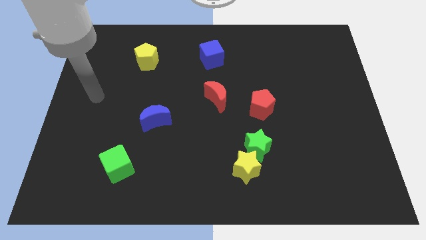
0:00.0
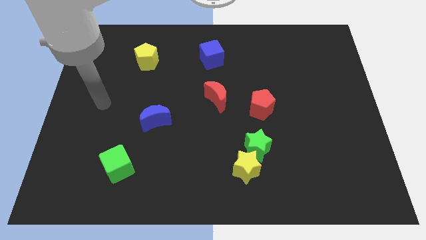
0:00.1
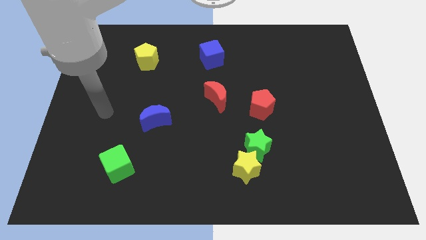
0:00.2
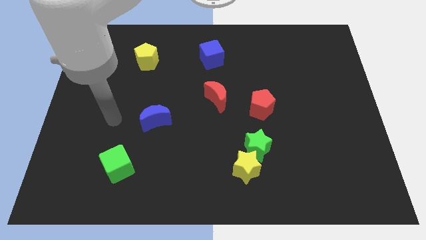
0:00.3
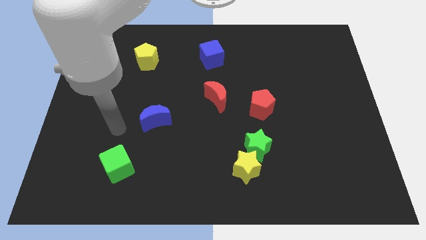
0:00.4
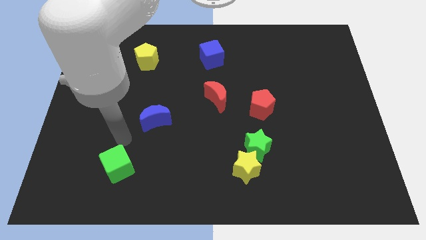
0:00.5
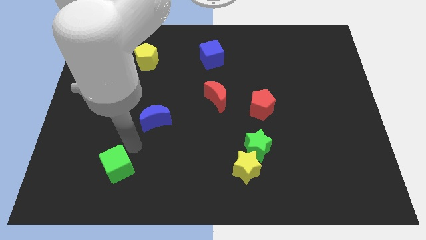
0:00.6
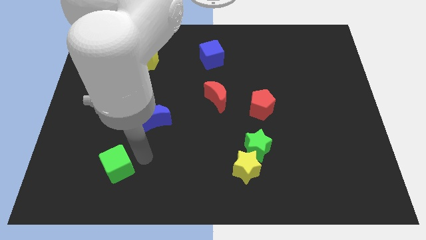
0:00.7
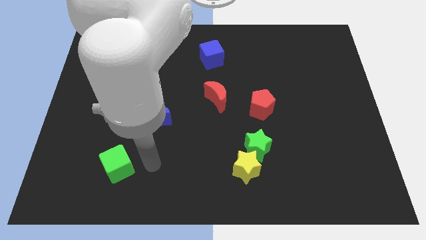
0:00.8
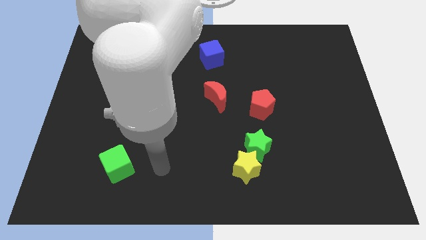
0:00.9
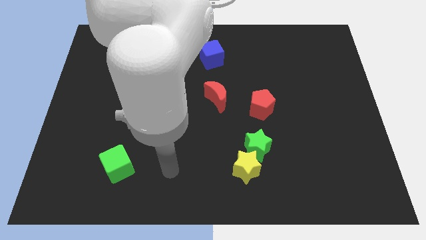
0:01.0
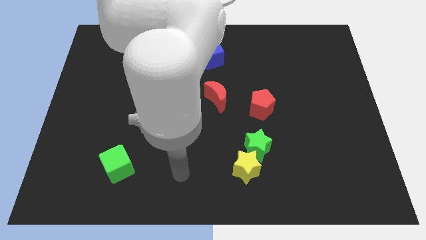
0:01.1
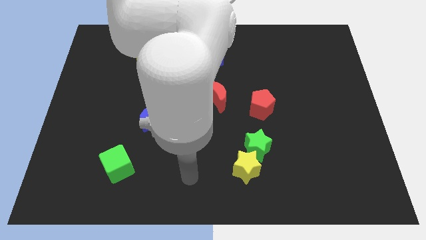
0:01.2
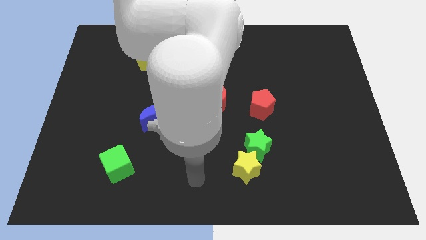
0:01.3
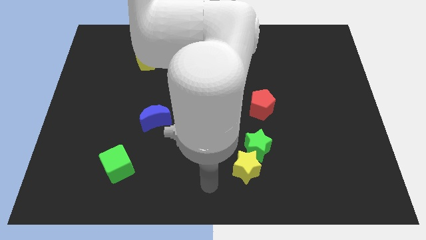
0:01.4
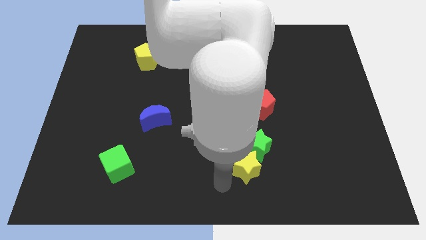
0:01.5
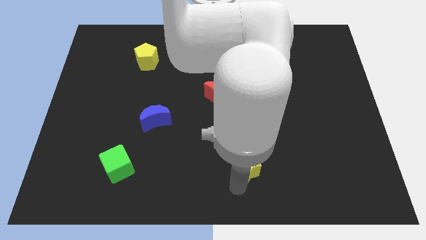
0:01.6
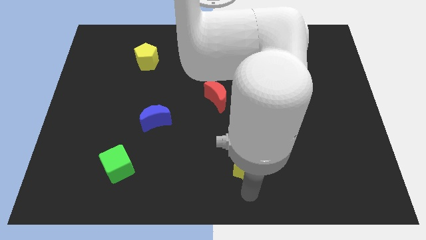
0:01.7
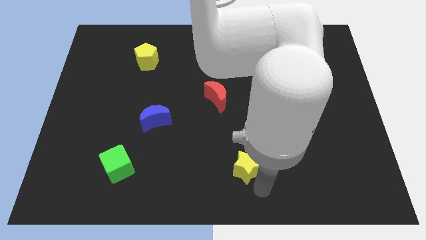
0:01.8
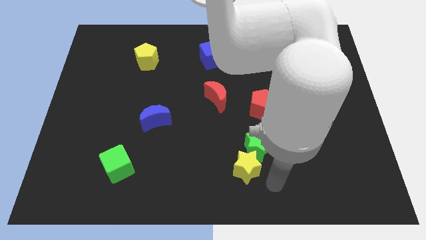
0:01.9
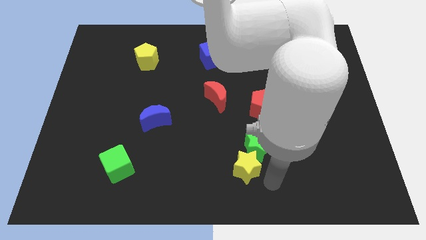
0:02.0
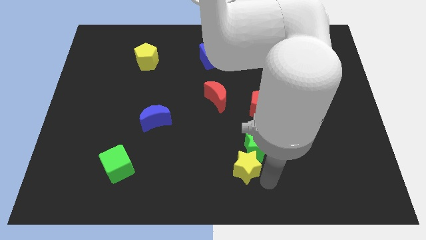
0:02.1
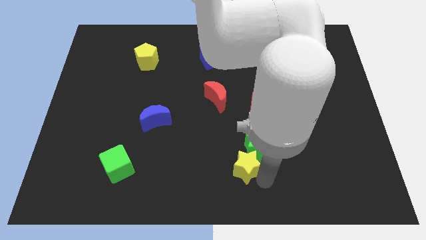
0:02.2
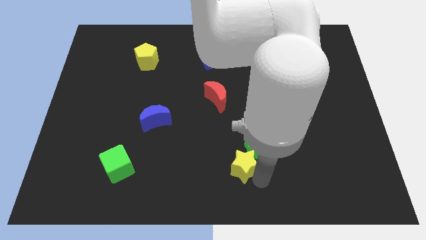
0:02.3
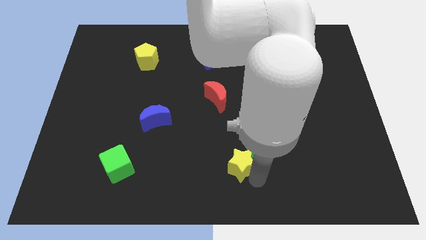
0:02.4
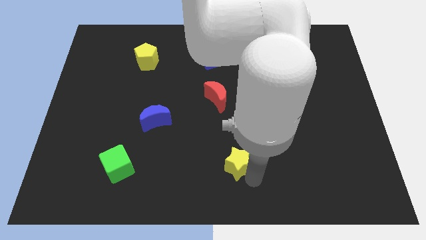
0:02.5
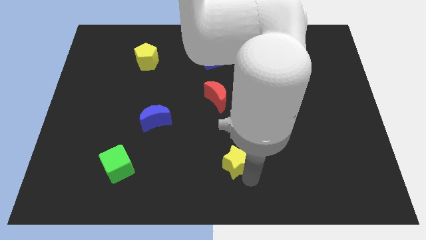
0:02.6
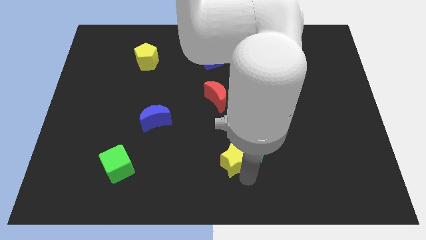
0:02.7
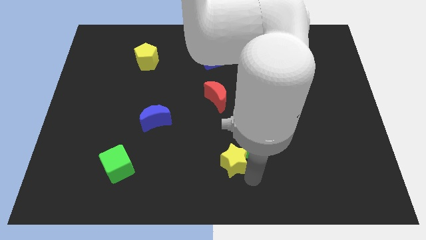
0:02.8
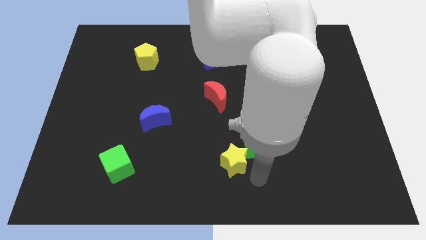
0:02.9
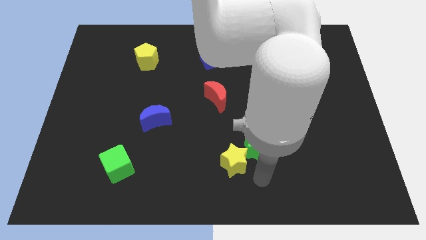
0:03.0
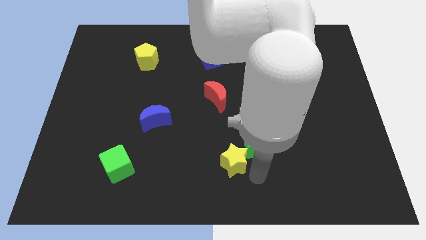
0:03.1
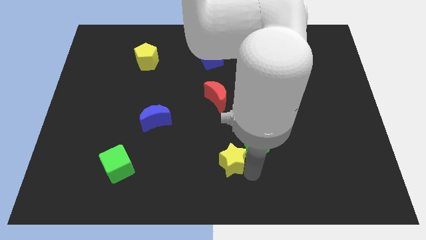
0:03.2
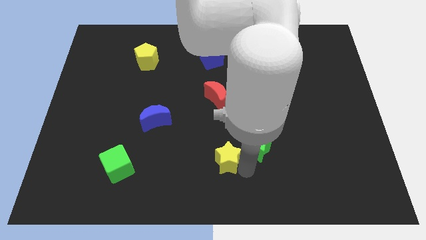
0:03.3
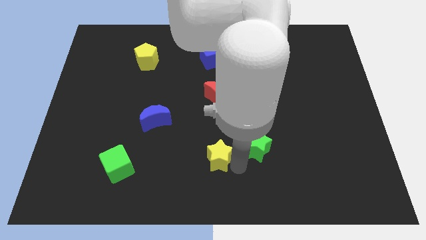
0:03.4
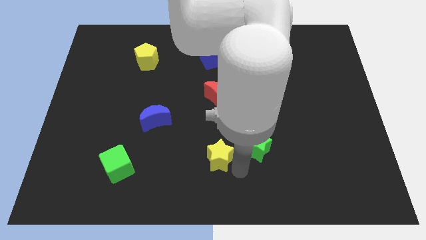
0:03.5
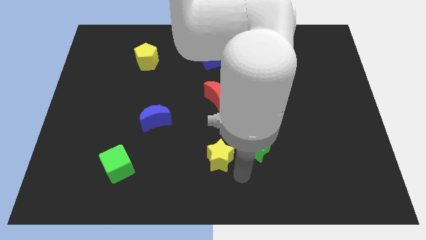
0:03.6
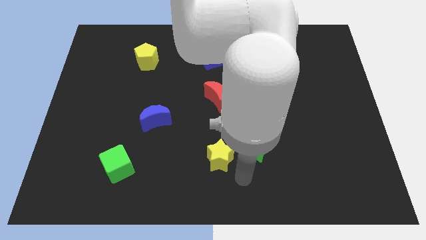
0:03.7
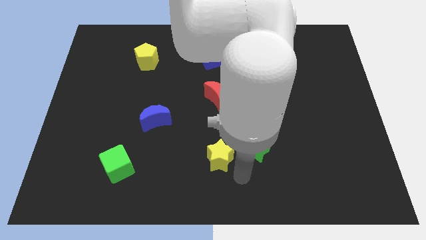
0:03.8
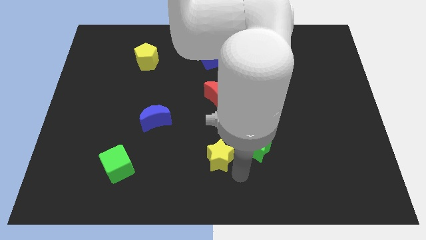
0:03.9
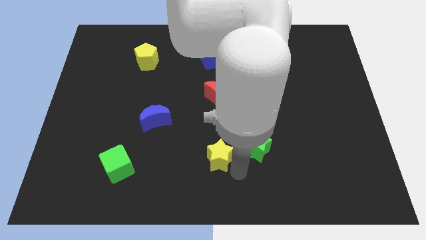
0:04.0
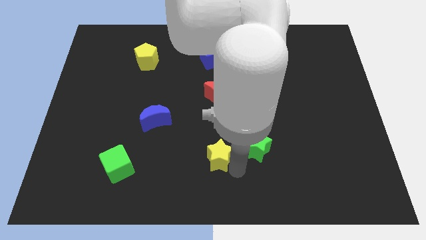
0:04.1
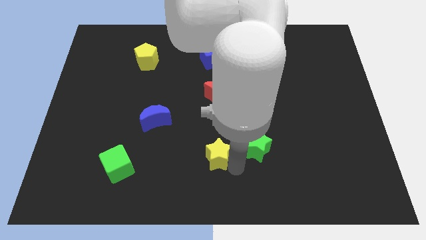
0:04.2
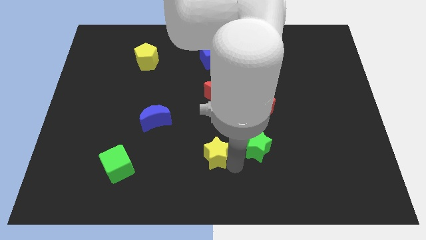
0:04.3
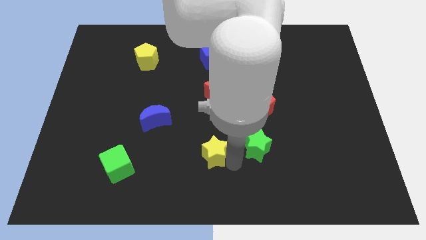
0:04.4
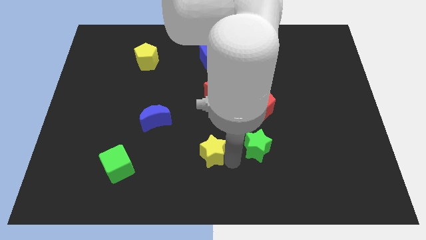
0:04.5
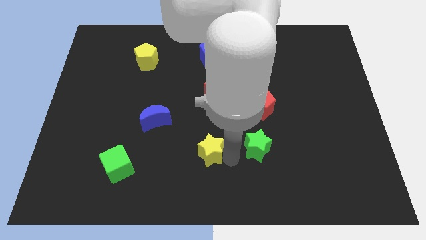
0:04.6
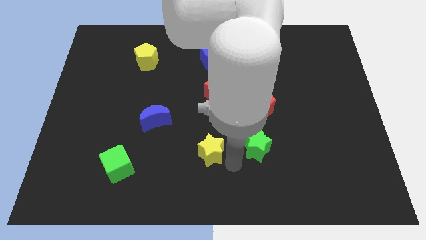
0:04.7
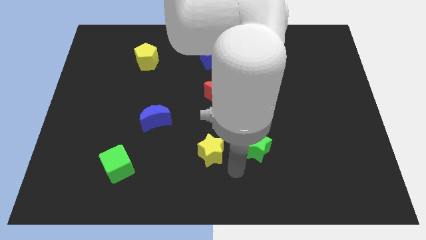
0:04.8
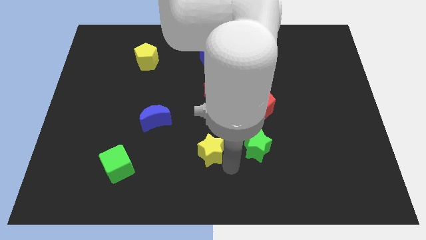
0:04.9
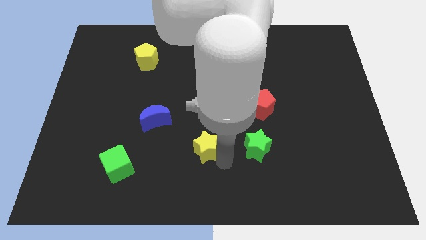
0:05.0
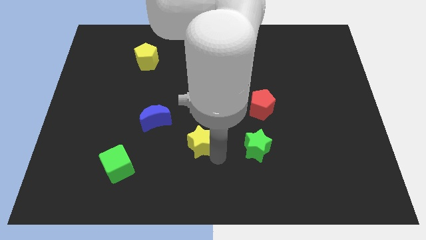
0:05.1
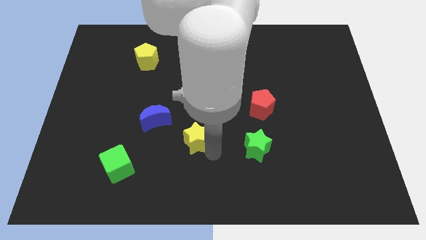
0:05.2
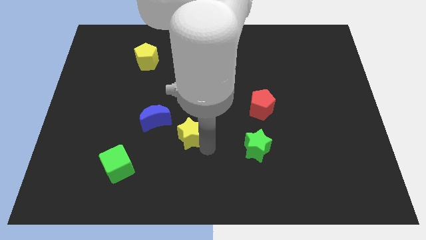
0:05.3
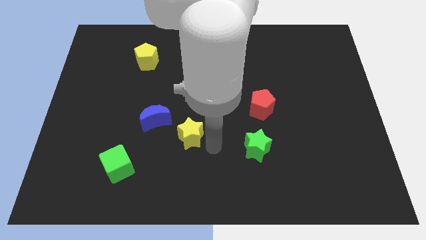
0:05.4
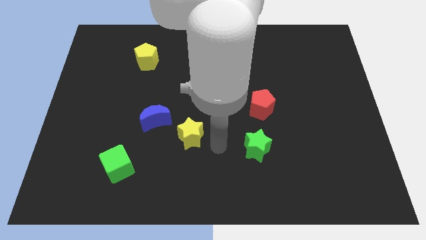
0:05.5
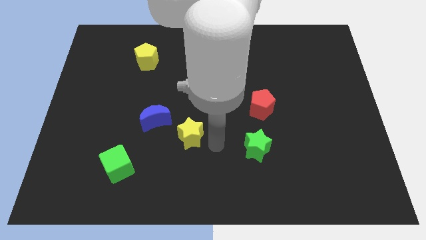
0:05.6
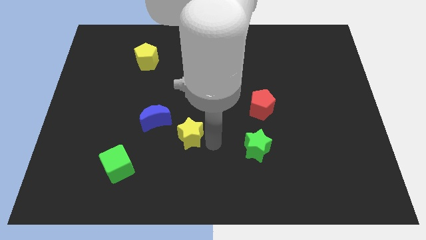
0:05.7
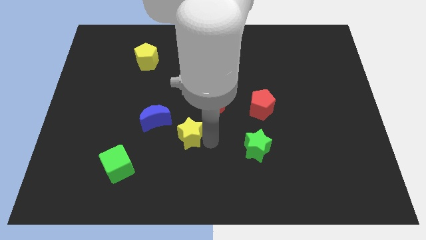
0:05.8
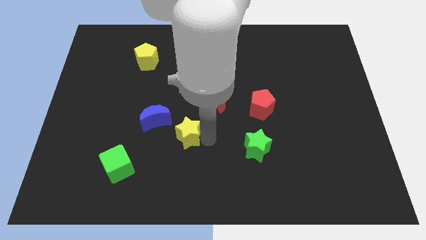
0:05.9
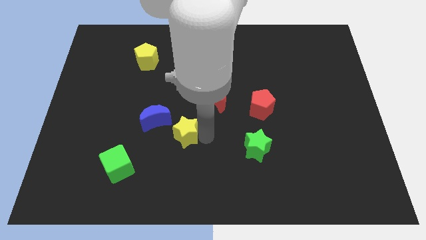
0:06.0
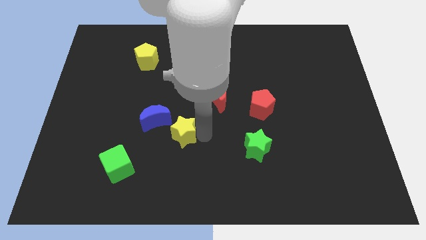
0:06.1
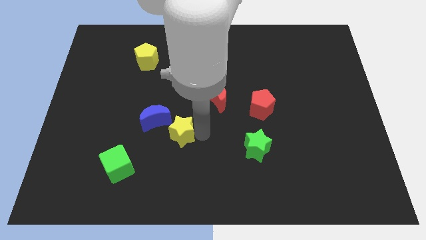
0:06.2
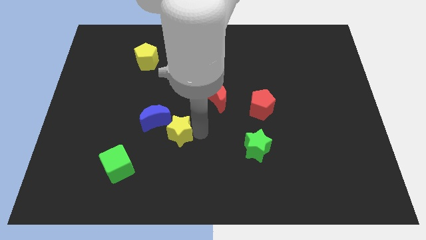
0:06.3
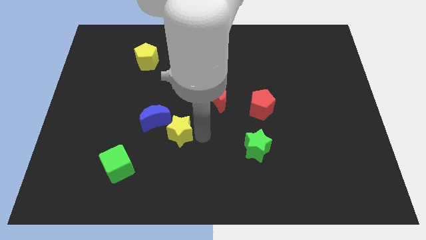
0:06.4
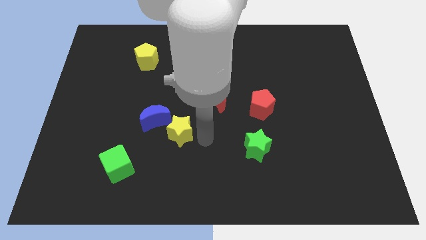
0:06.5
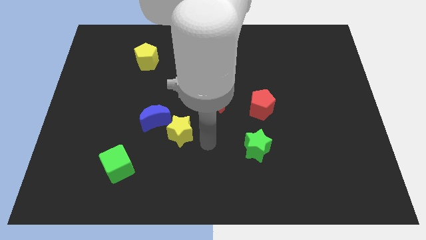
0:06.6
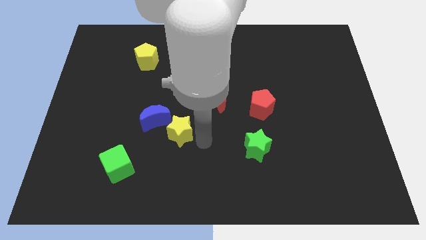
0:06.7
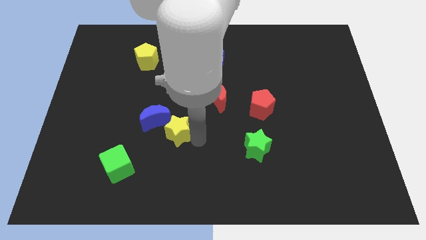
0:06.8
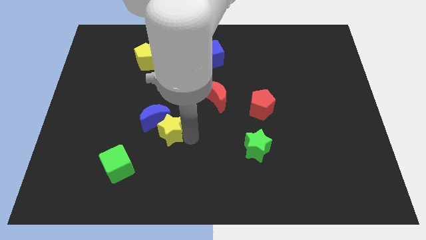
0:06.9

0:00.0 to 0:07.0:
put the yellow star next to the blue moon
